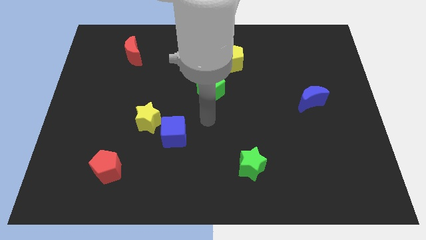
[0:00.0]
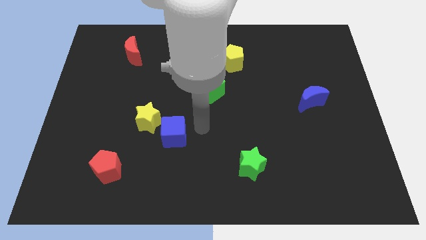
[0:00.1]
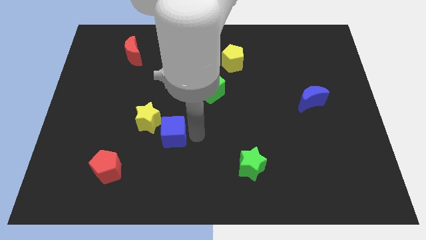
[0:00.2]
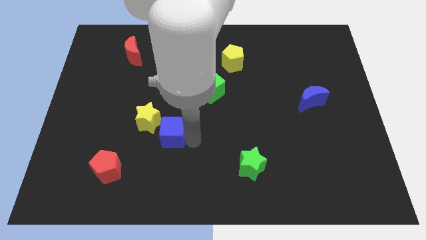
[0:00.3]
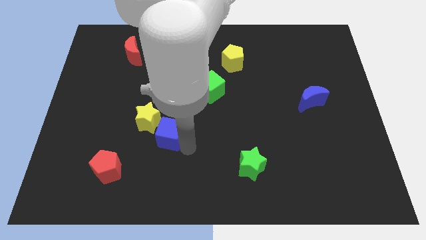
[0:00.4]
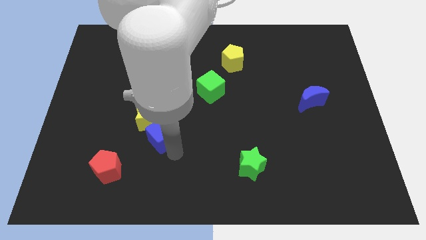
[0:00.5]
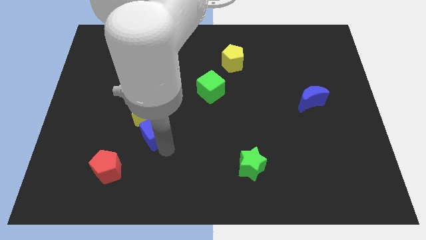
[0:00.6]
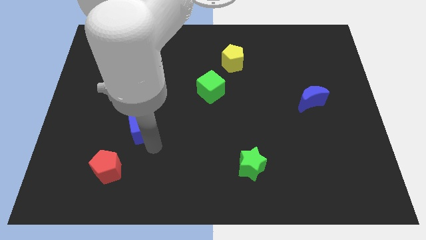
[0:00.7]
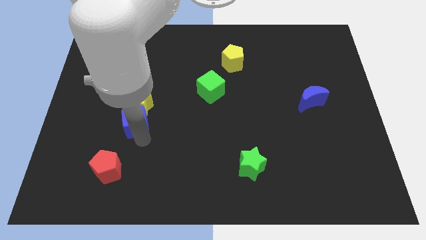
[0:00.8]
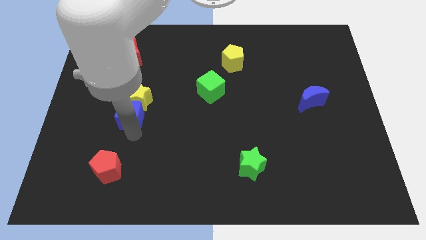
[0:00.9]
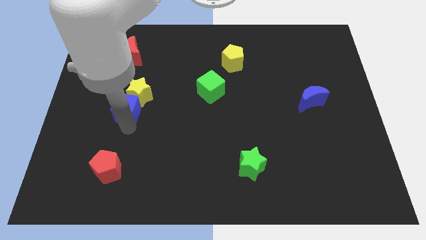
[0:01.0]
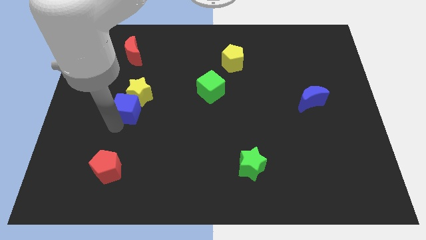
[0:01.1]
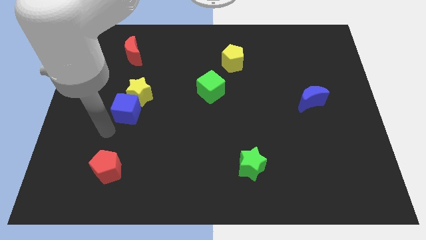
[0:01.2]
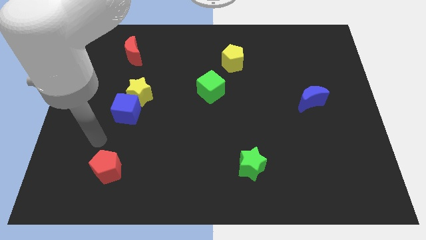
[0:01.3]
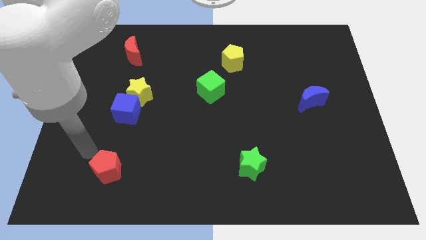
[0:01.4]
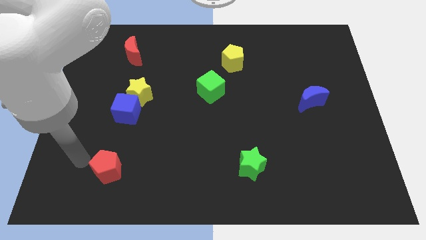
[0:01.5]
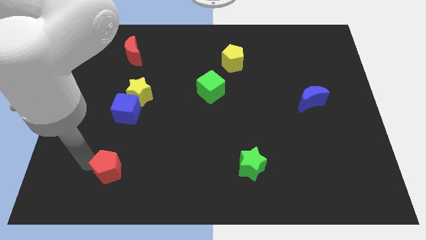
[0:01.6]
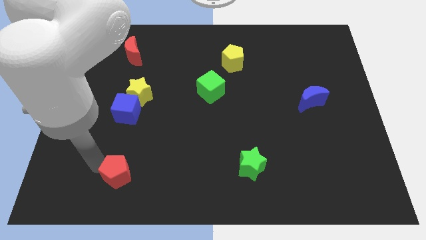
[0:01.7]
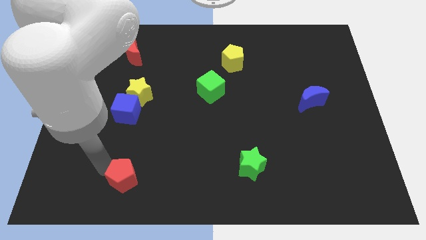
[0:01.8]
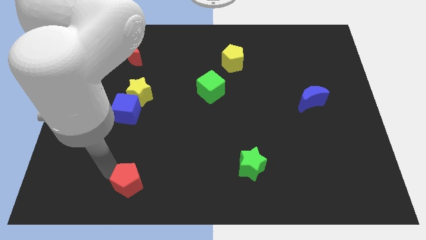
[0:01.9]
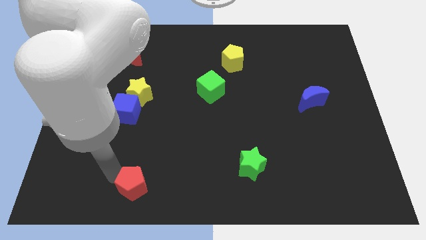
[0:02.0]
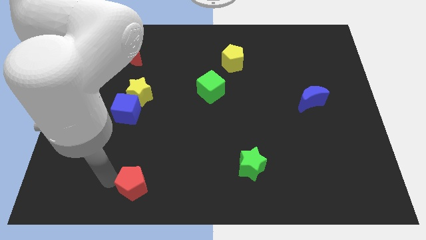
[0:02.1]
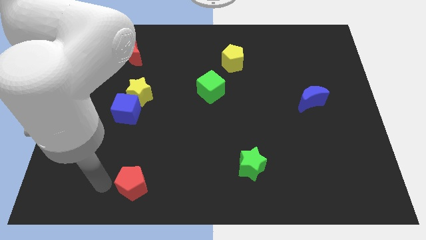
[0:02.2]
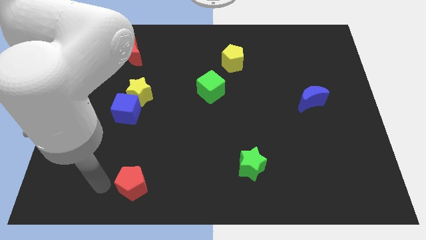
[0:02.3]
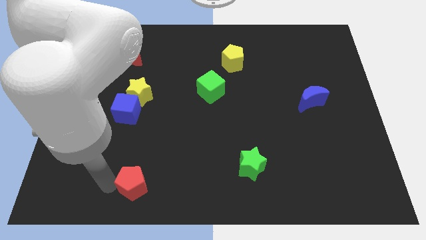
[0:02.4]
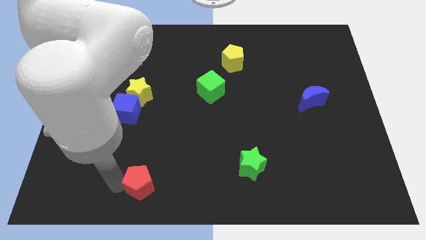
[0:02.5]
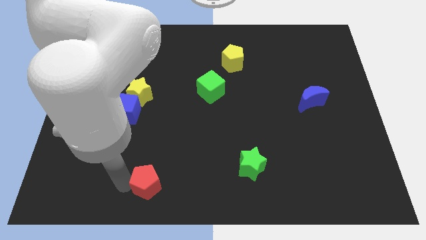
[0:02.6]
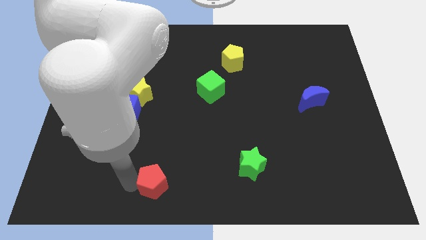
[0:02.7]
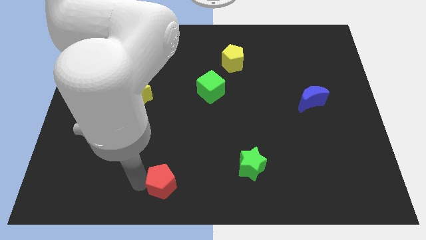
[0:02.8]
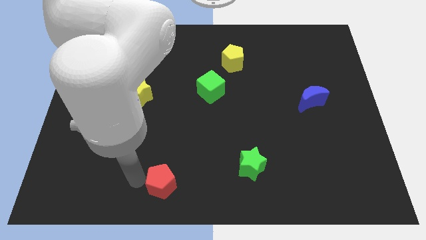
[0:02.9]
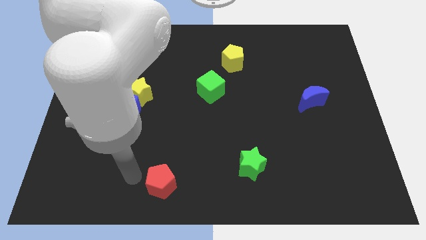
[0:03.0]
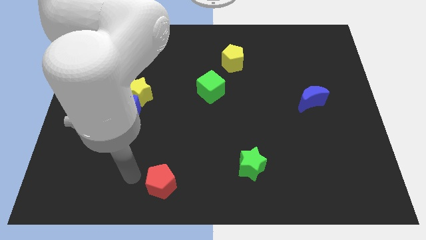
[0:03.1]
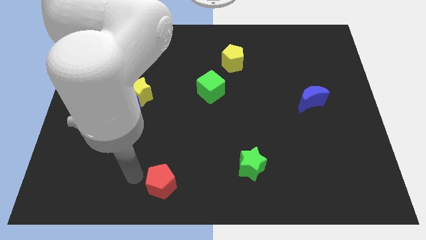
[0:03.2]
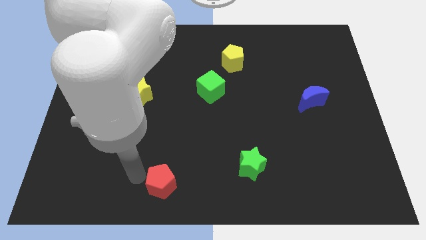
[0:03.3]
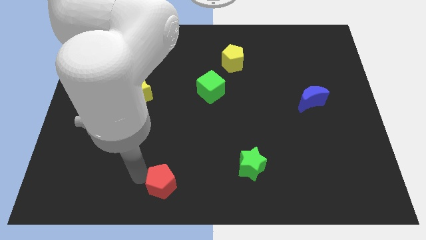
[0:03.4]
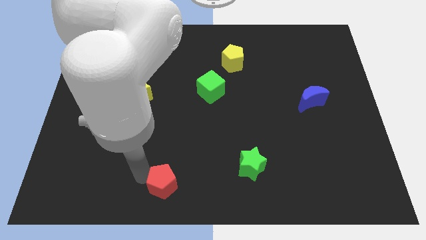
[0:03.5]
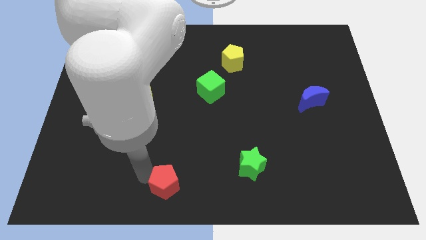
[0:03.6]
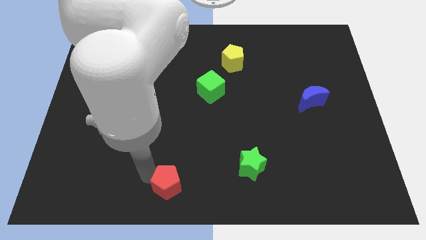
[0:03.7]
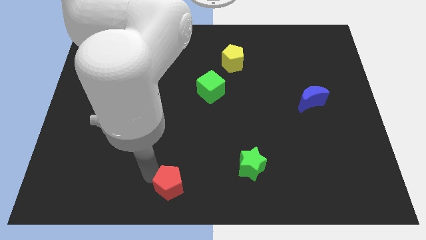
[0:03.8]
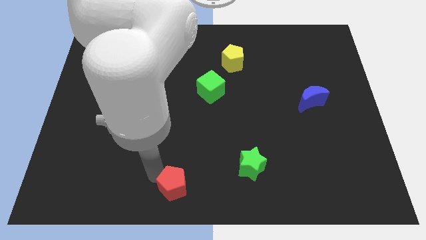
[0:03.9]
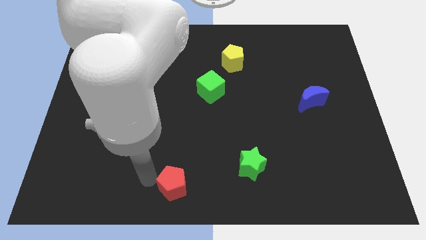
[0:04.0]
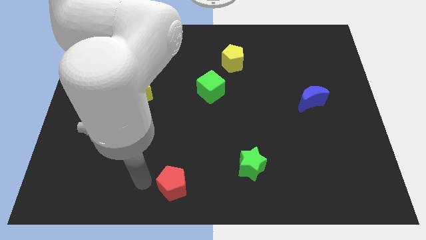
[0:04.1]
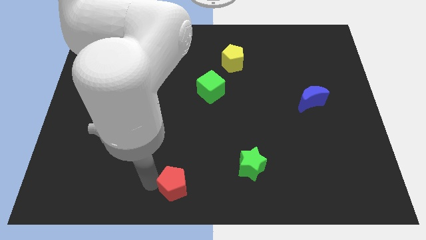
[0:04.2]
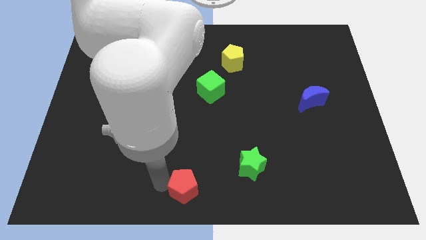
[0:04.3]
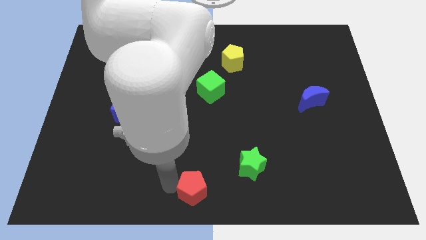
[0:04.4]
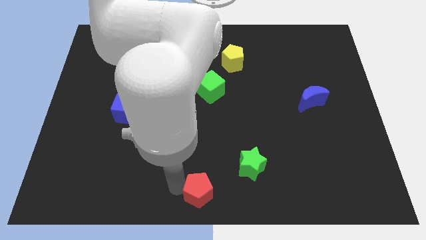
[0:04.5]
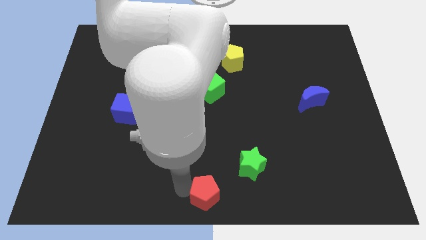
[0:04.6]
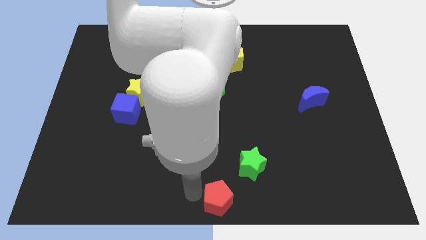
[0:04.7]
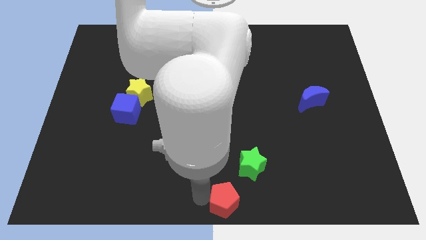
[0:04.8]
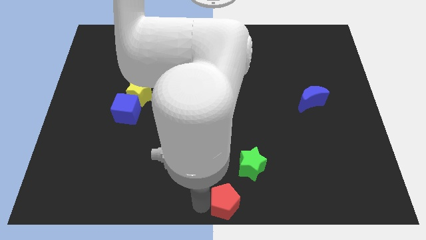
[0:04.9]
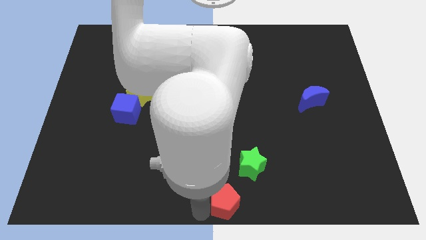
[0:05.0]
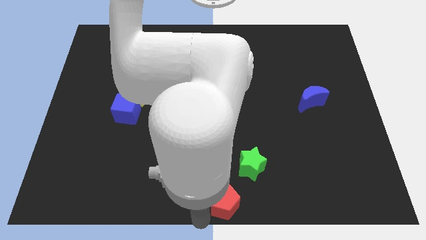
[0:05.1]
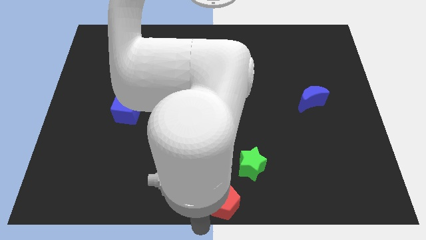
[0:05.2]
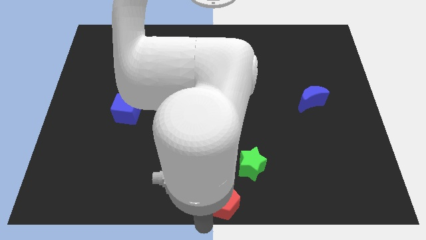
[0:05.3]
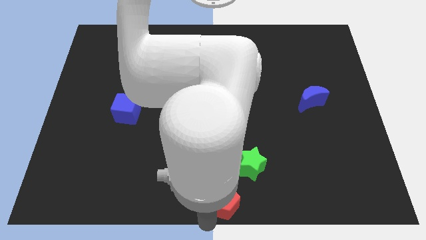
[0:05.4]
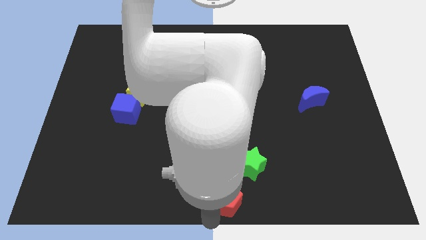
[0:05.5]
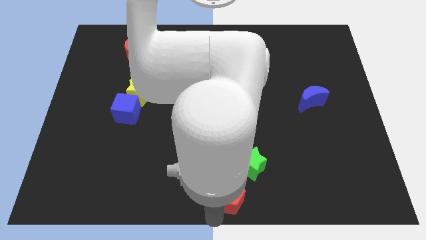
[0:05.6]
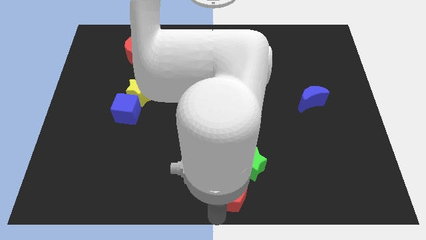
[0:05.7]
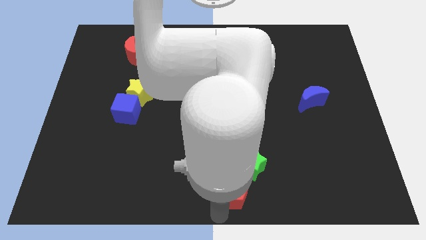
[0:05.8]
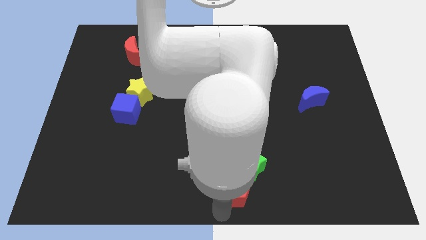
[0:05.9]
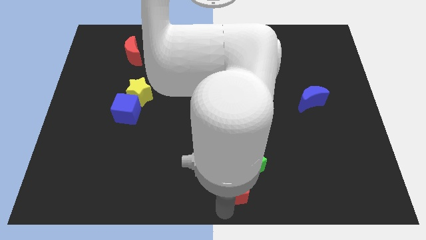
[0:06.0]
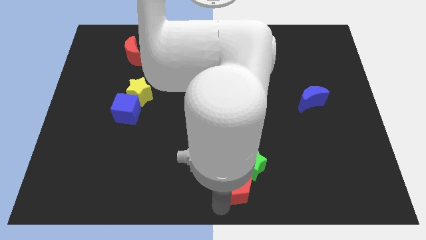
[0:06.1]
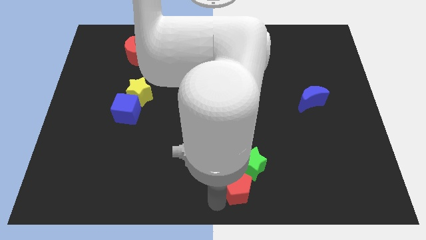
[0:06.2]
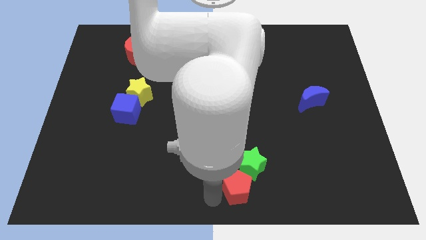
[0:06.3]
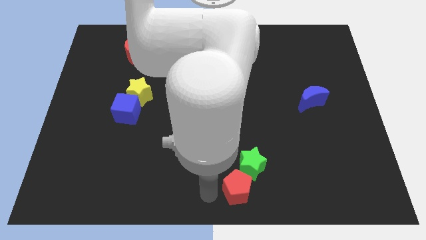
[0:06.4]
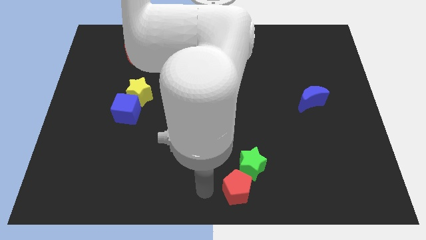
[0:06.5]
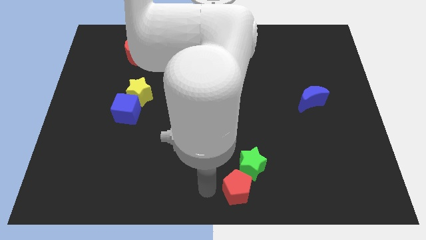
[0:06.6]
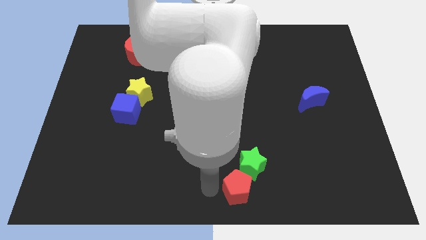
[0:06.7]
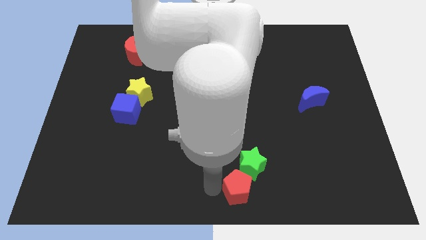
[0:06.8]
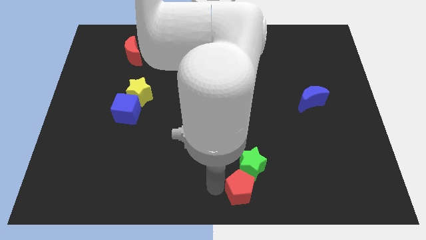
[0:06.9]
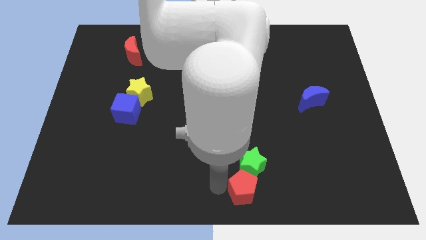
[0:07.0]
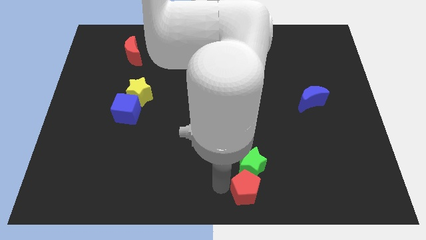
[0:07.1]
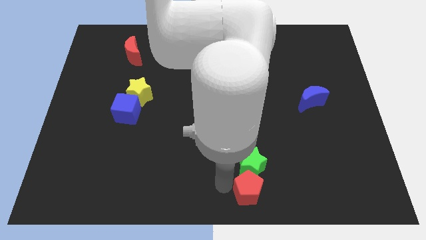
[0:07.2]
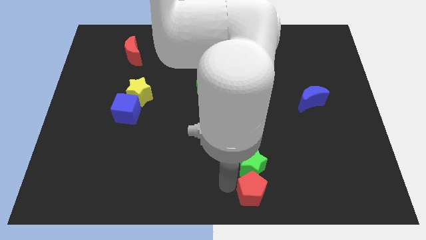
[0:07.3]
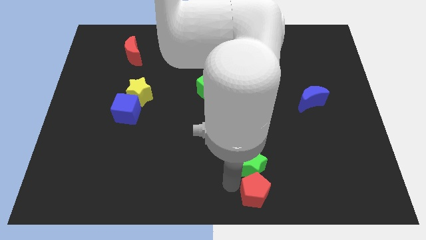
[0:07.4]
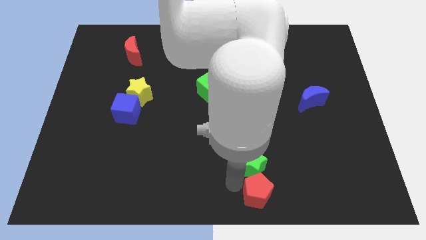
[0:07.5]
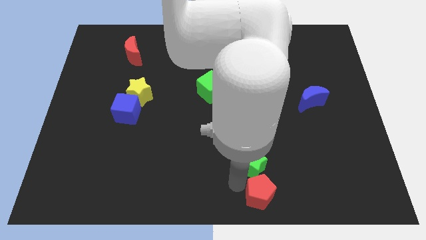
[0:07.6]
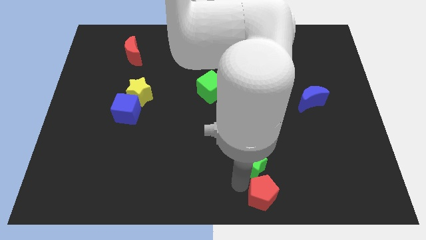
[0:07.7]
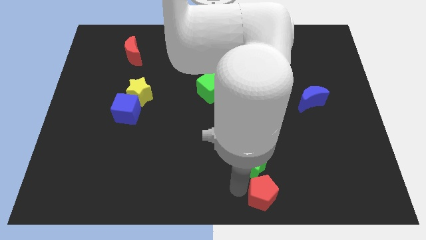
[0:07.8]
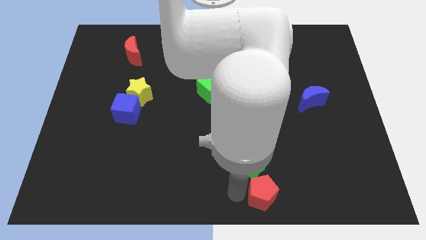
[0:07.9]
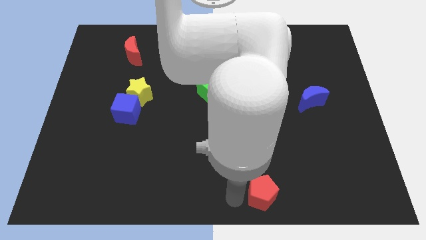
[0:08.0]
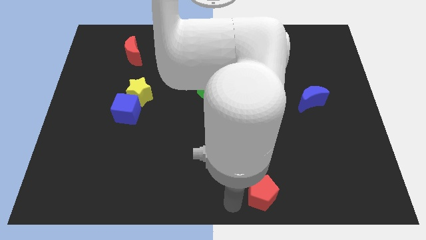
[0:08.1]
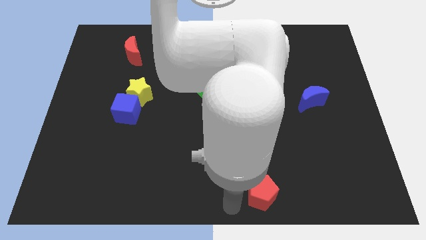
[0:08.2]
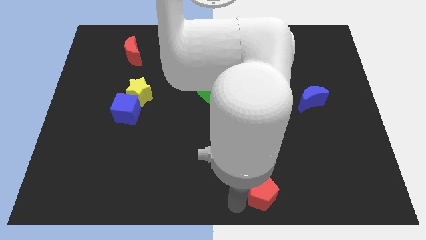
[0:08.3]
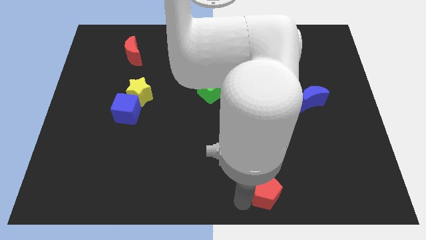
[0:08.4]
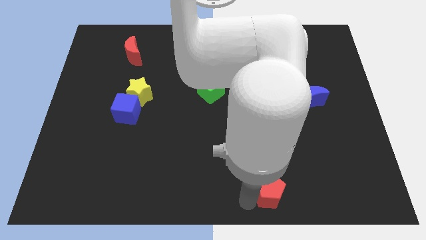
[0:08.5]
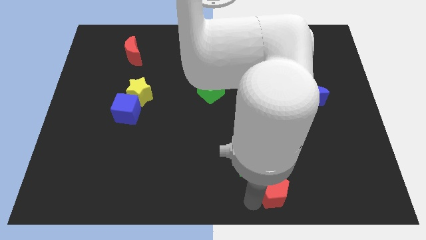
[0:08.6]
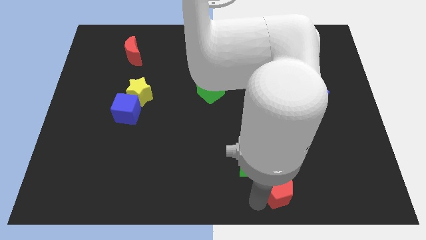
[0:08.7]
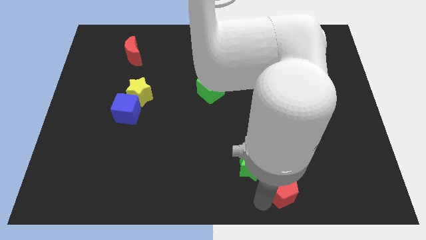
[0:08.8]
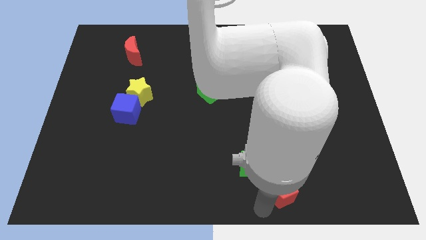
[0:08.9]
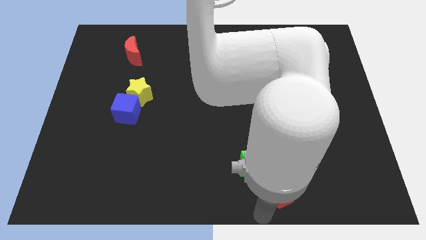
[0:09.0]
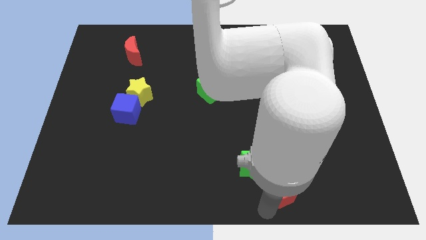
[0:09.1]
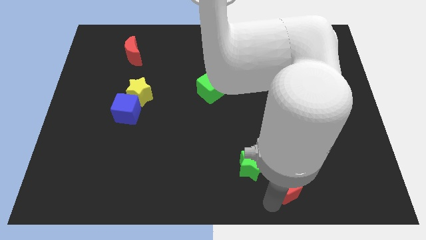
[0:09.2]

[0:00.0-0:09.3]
slide the red pentagon right of the green star
